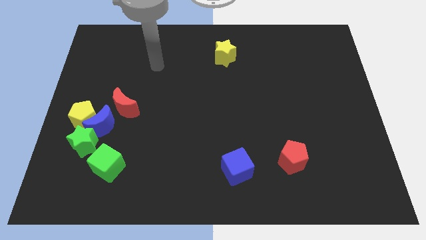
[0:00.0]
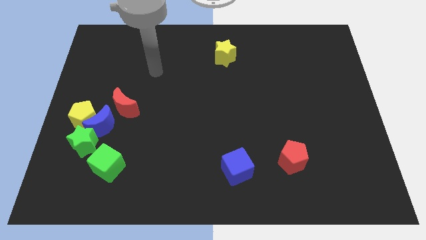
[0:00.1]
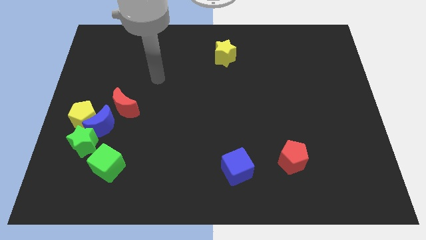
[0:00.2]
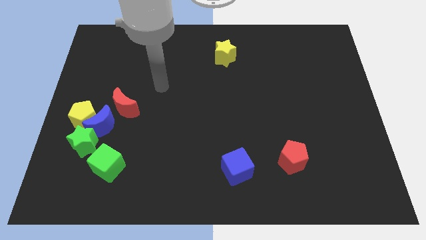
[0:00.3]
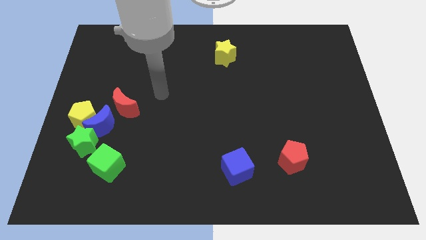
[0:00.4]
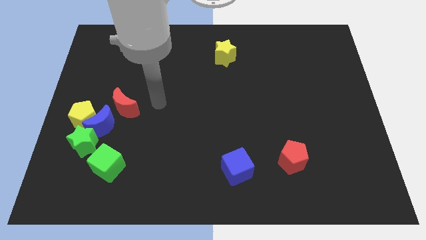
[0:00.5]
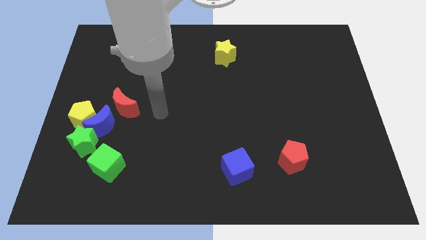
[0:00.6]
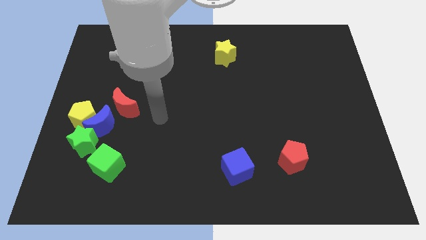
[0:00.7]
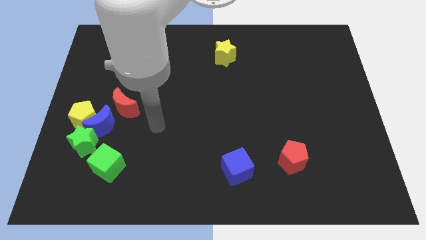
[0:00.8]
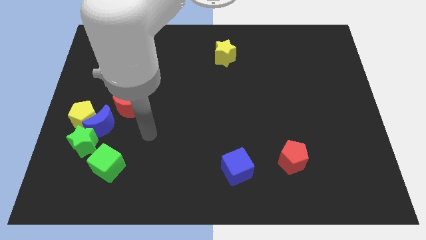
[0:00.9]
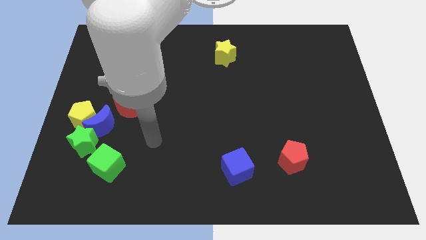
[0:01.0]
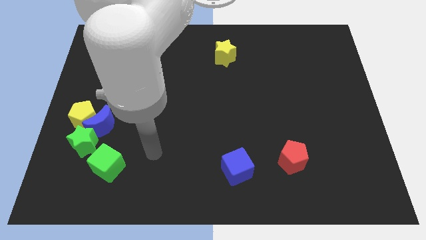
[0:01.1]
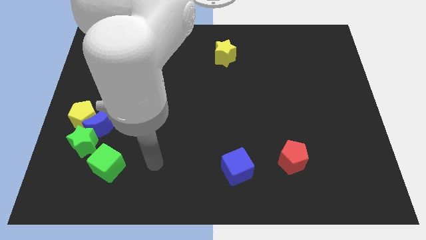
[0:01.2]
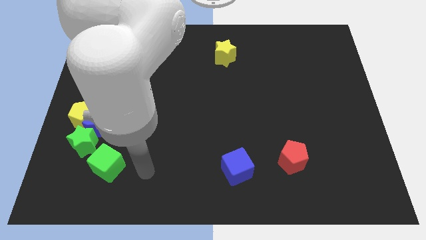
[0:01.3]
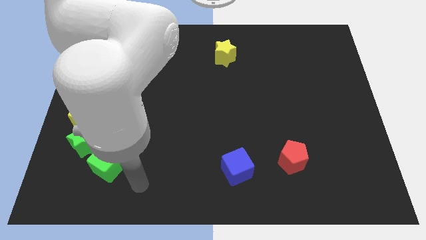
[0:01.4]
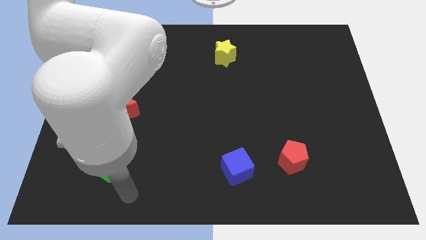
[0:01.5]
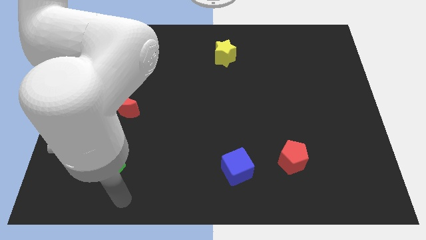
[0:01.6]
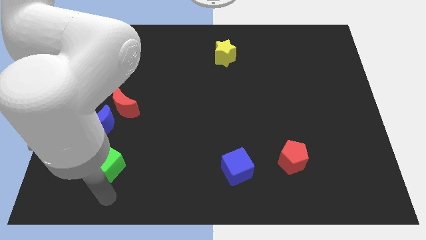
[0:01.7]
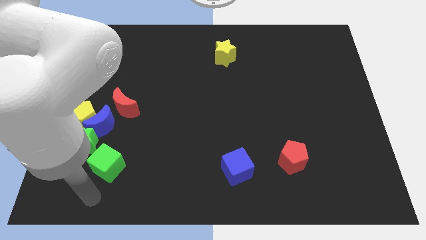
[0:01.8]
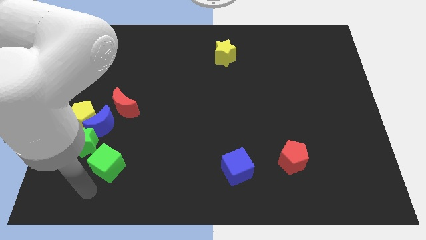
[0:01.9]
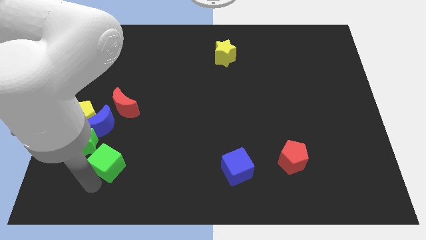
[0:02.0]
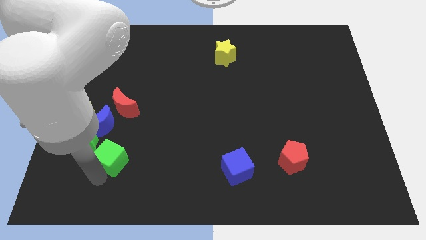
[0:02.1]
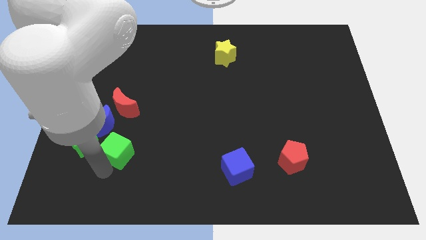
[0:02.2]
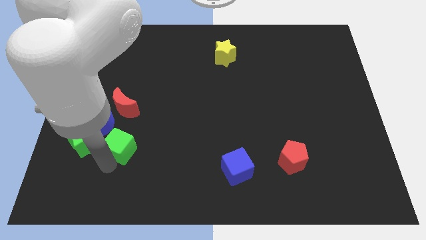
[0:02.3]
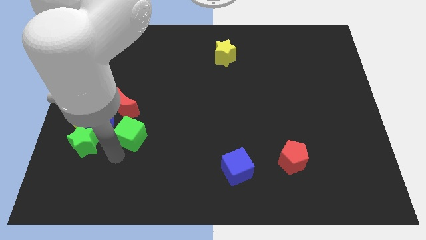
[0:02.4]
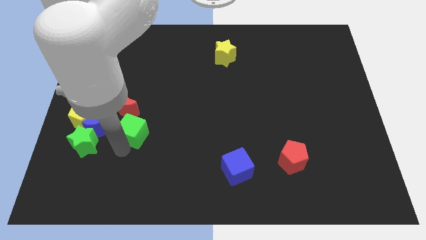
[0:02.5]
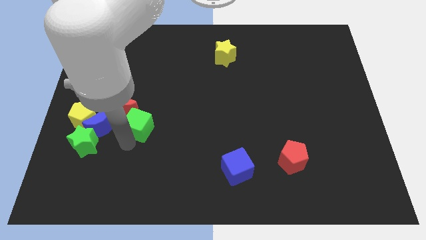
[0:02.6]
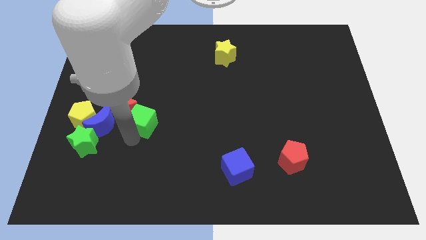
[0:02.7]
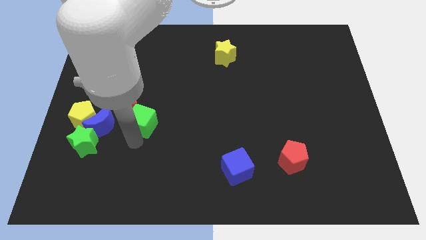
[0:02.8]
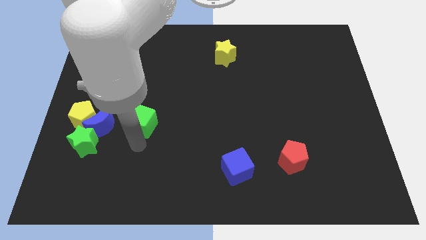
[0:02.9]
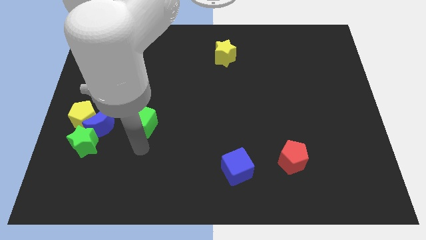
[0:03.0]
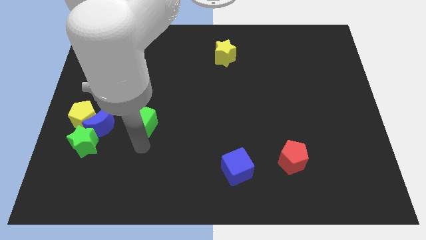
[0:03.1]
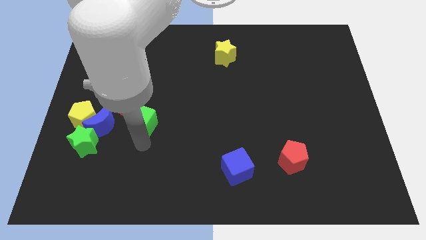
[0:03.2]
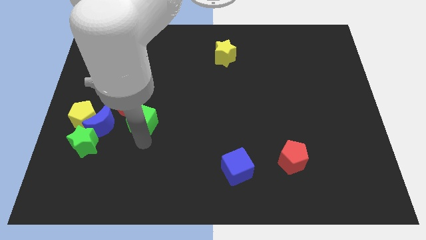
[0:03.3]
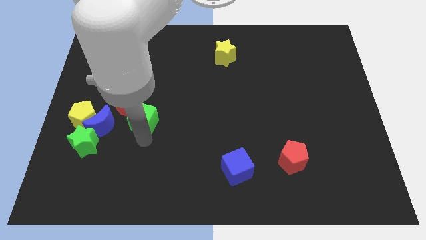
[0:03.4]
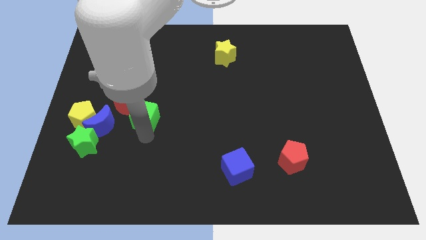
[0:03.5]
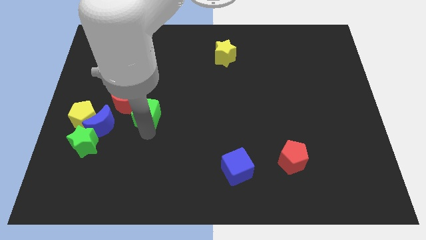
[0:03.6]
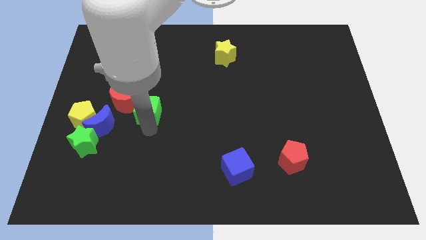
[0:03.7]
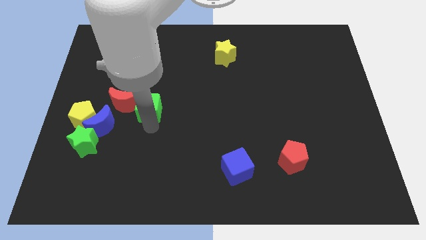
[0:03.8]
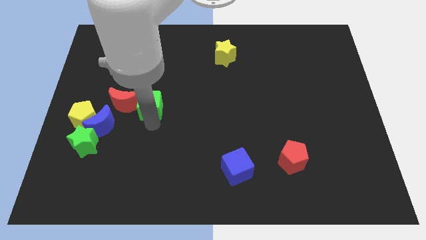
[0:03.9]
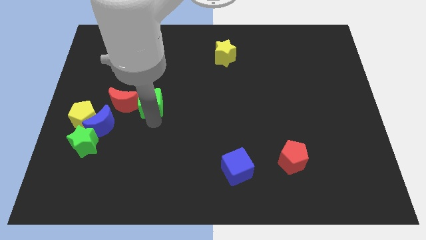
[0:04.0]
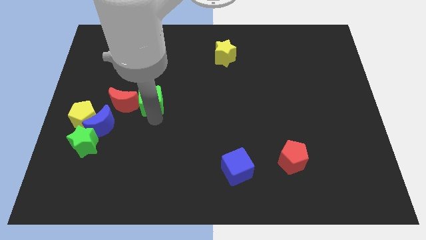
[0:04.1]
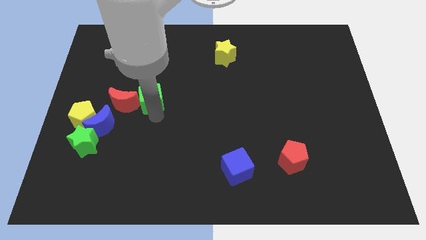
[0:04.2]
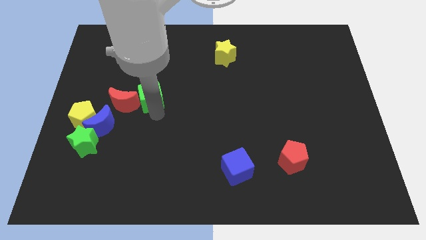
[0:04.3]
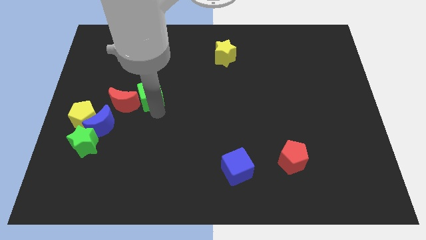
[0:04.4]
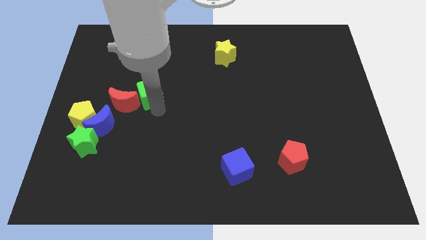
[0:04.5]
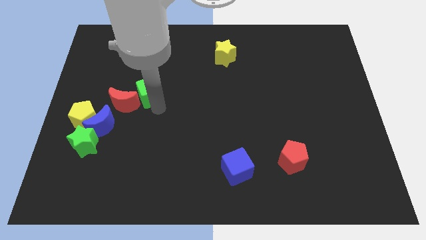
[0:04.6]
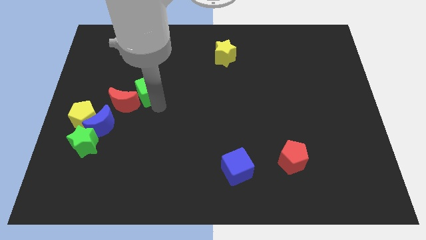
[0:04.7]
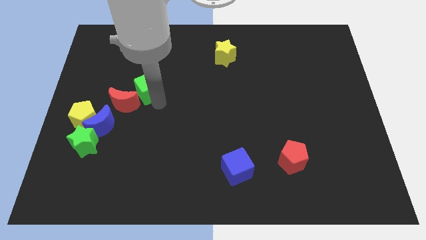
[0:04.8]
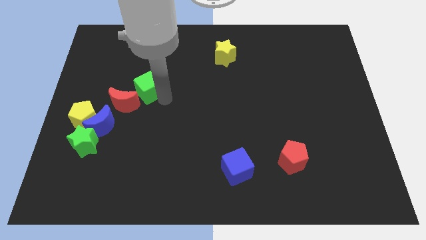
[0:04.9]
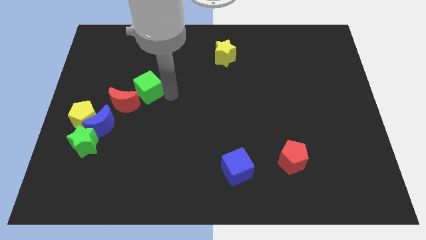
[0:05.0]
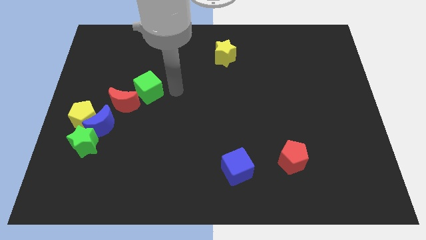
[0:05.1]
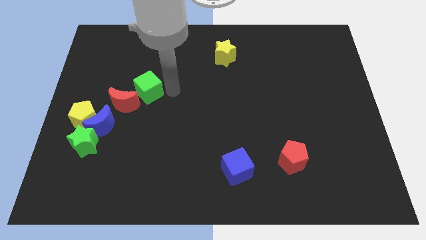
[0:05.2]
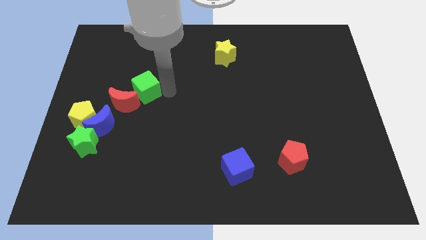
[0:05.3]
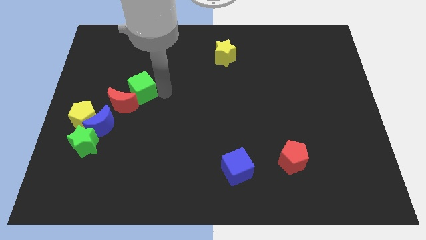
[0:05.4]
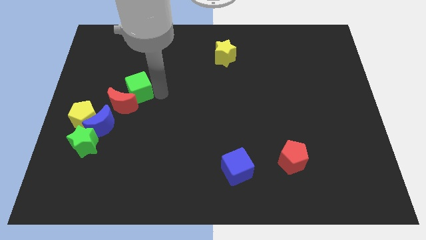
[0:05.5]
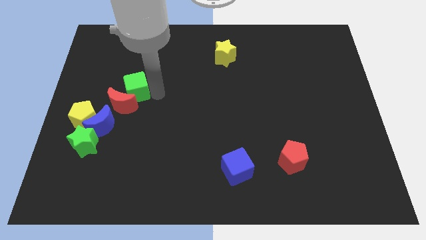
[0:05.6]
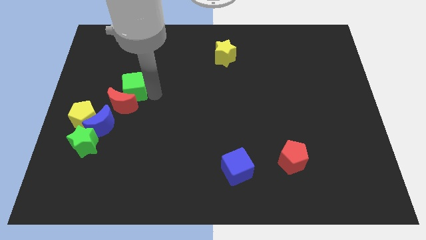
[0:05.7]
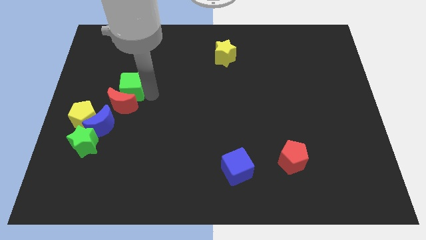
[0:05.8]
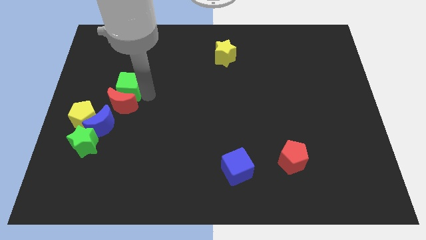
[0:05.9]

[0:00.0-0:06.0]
put the green cube to the top side of the blue moon

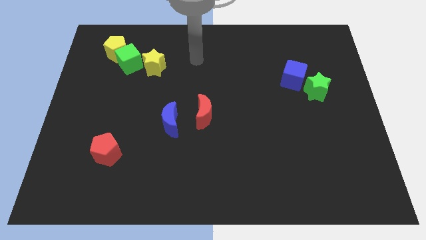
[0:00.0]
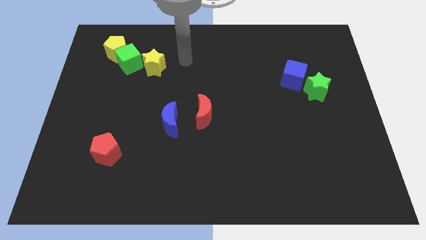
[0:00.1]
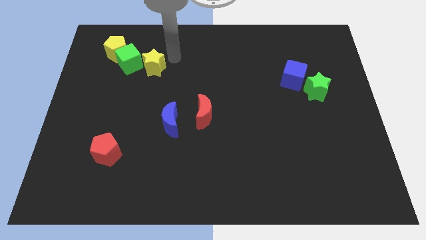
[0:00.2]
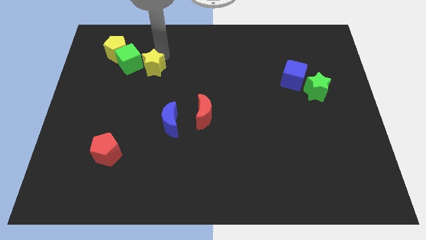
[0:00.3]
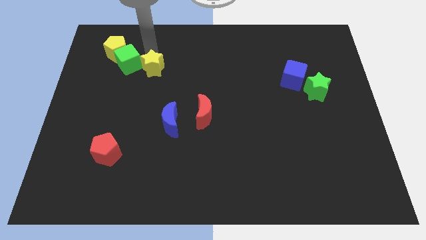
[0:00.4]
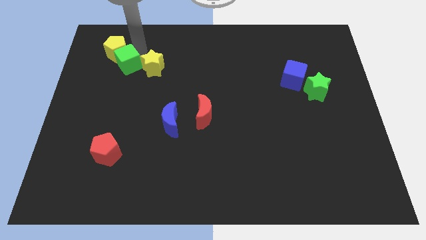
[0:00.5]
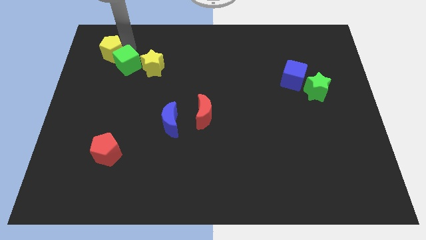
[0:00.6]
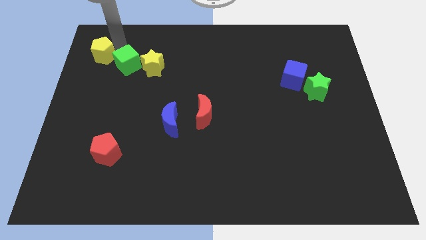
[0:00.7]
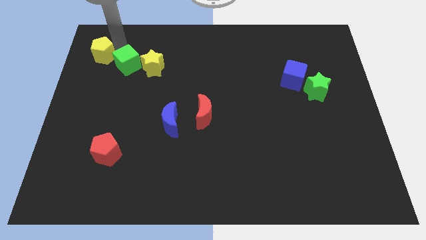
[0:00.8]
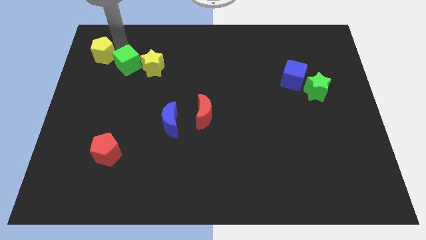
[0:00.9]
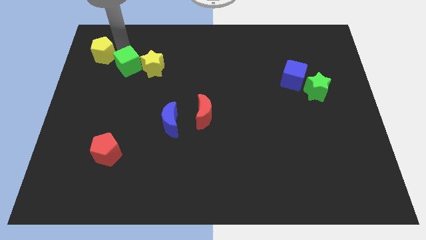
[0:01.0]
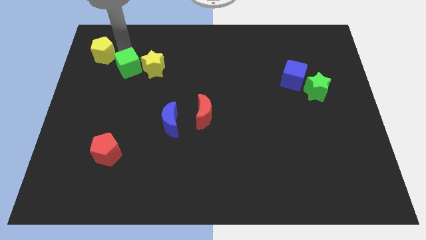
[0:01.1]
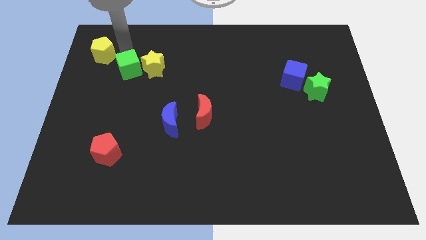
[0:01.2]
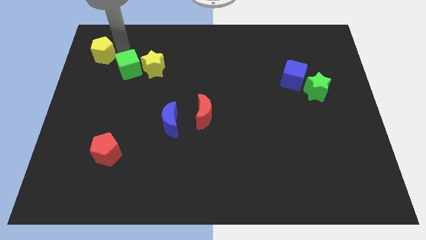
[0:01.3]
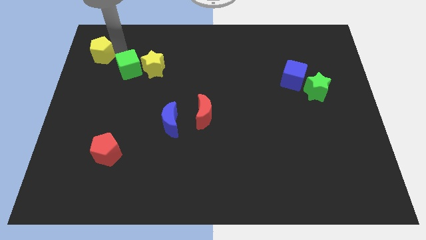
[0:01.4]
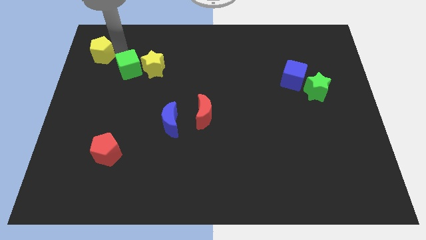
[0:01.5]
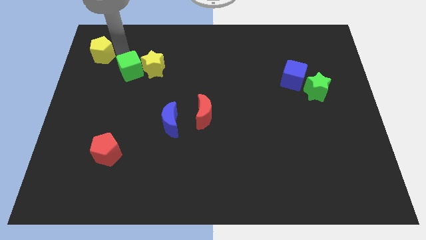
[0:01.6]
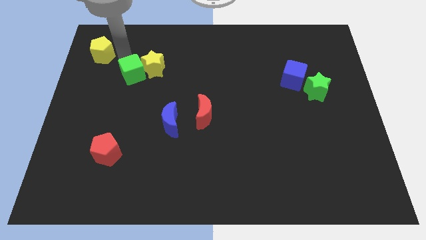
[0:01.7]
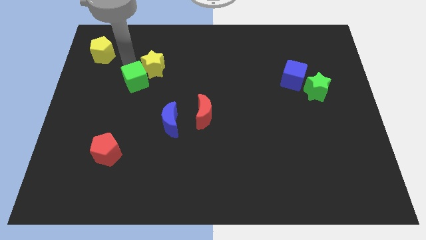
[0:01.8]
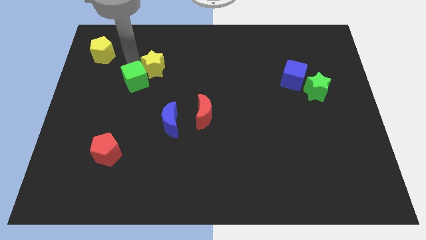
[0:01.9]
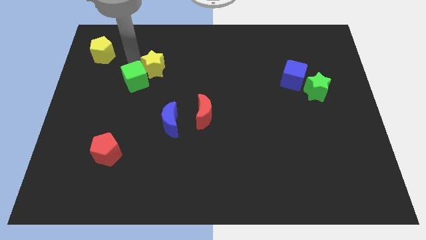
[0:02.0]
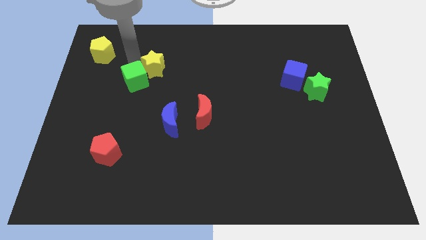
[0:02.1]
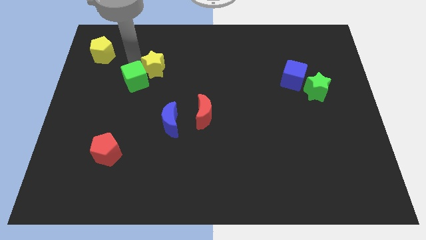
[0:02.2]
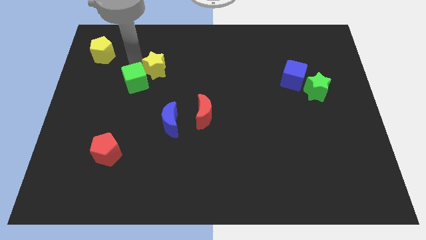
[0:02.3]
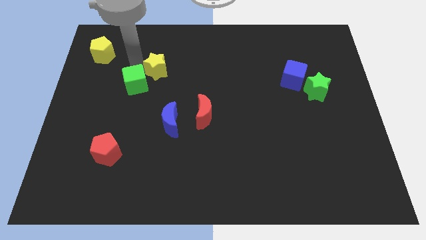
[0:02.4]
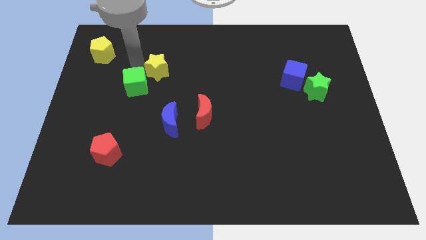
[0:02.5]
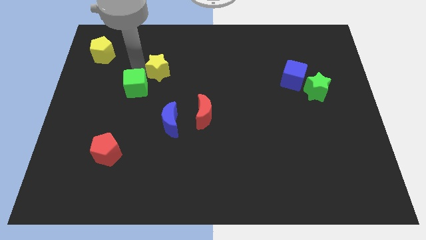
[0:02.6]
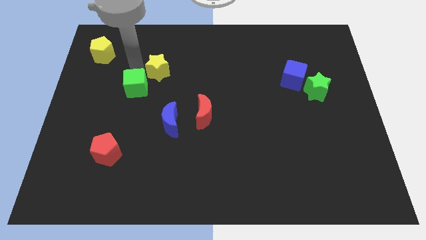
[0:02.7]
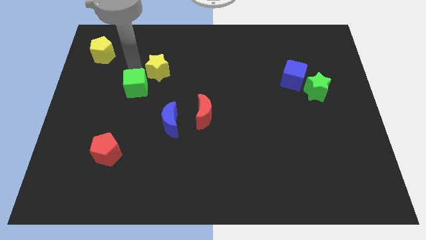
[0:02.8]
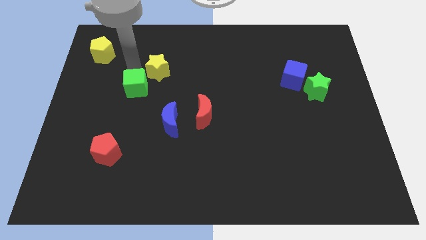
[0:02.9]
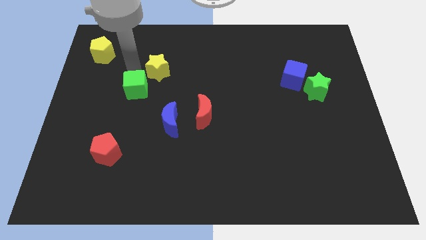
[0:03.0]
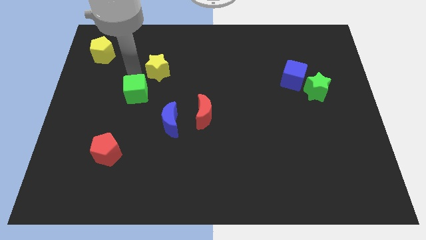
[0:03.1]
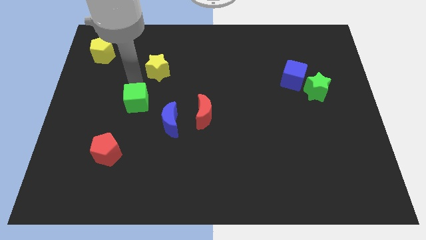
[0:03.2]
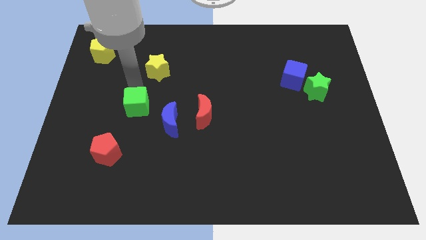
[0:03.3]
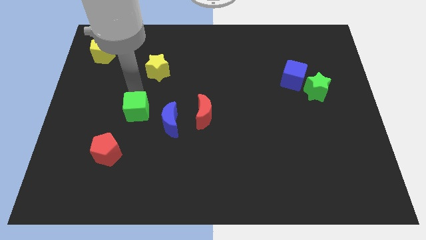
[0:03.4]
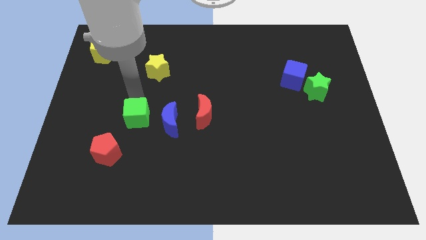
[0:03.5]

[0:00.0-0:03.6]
move the green cube diagonally up and to the right of the red pentagon
